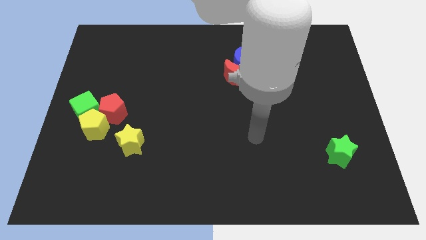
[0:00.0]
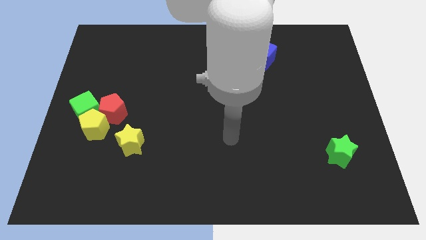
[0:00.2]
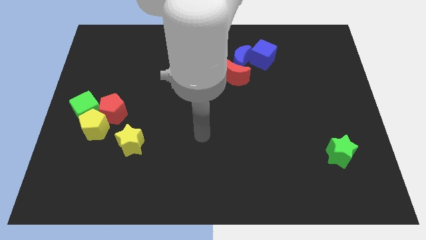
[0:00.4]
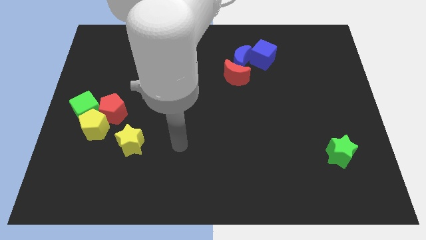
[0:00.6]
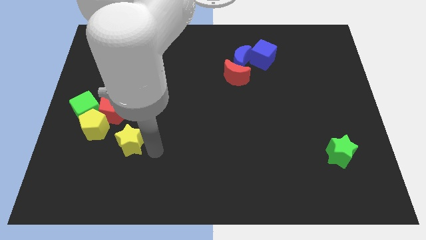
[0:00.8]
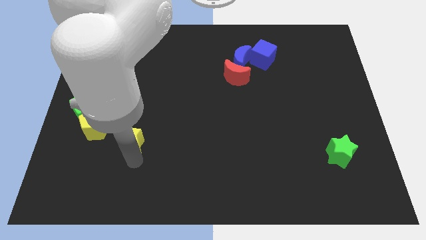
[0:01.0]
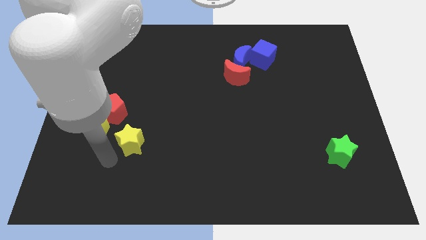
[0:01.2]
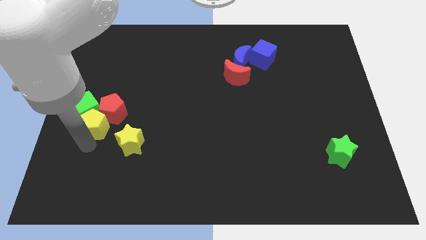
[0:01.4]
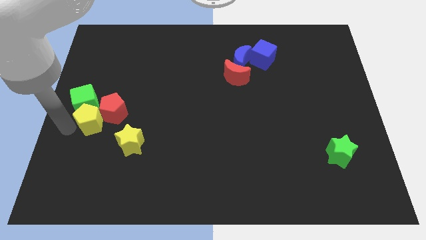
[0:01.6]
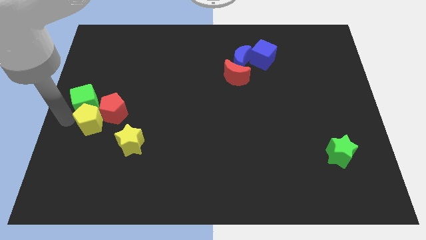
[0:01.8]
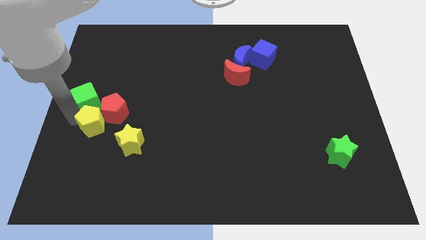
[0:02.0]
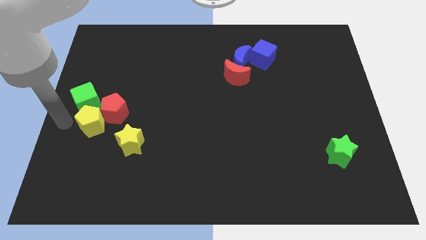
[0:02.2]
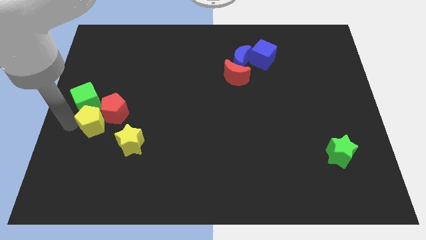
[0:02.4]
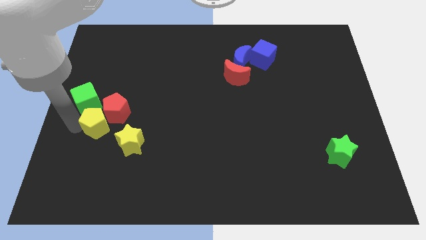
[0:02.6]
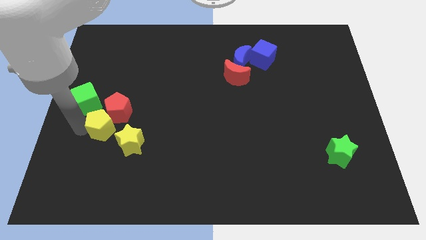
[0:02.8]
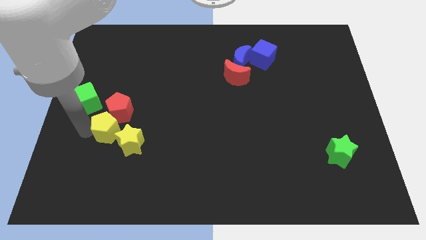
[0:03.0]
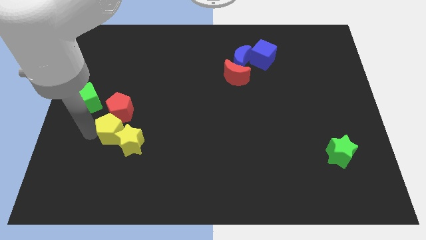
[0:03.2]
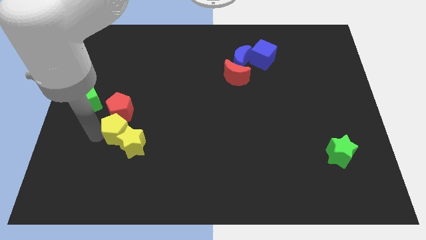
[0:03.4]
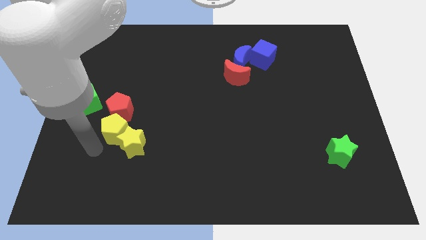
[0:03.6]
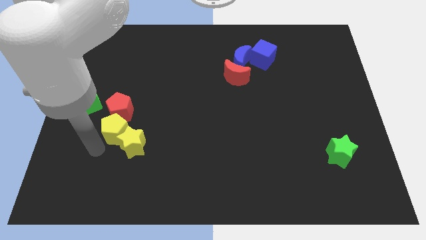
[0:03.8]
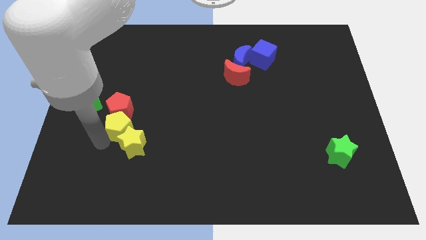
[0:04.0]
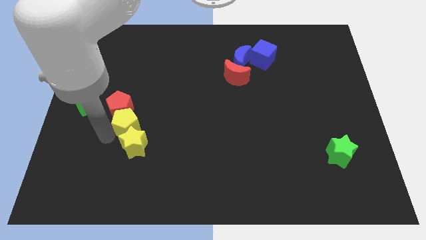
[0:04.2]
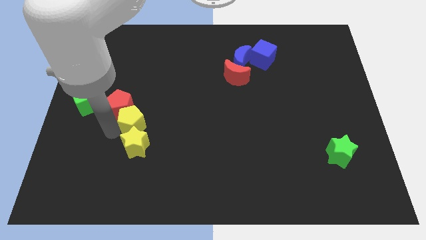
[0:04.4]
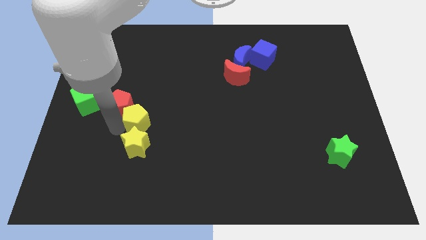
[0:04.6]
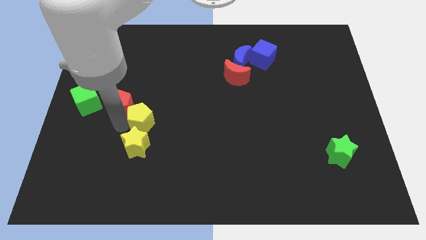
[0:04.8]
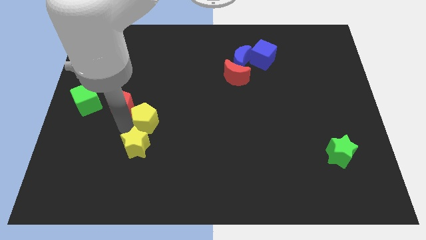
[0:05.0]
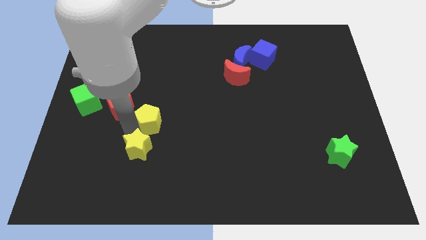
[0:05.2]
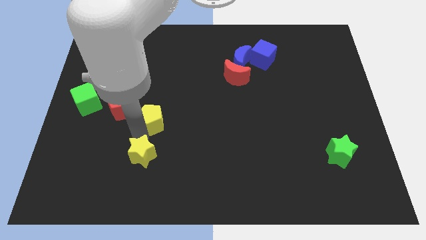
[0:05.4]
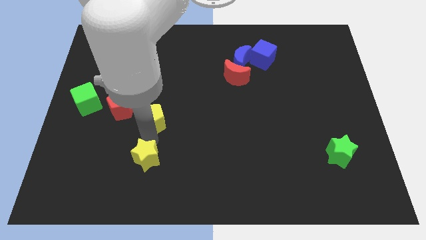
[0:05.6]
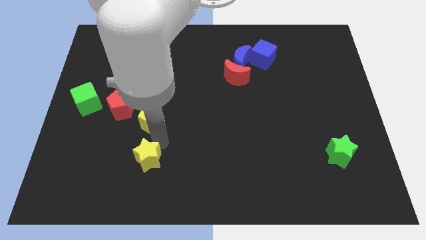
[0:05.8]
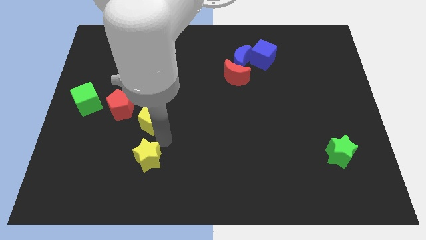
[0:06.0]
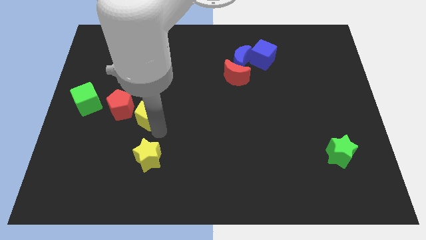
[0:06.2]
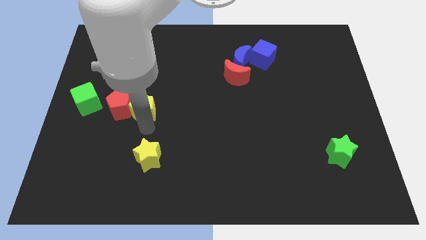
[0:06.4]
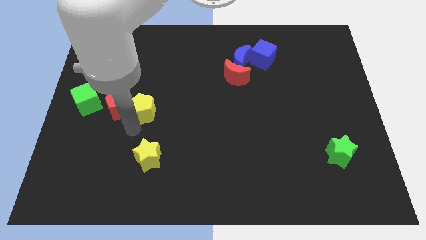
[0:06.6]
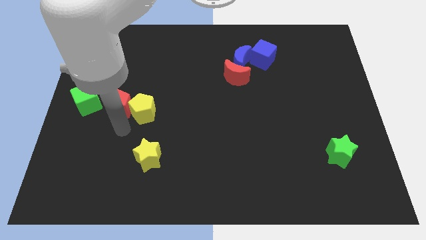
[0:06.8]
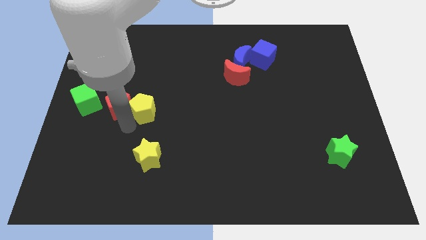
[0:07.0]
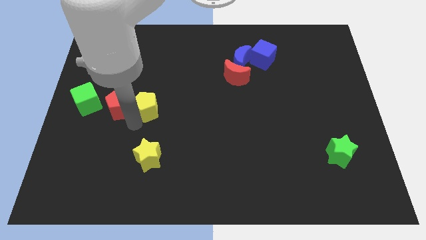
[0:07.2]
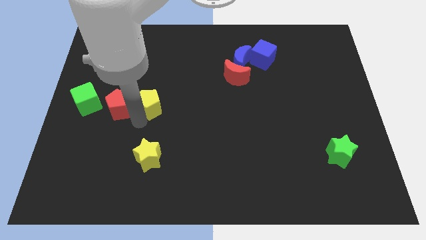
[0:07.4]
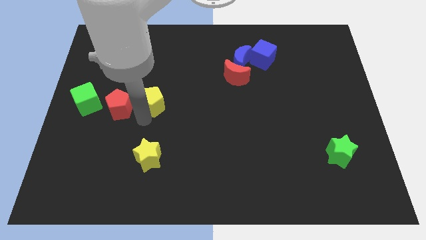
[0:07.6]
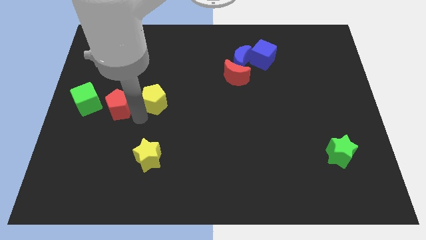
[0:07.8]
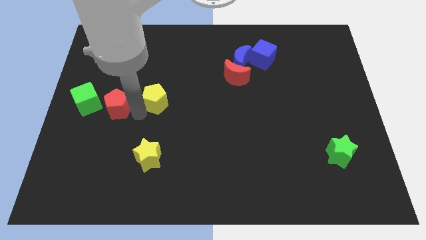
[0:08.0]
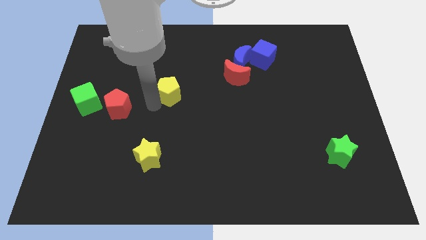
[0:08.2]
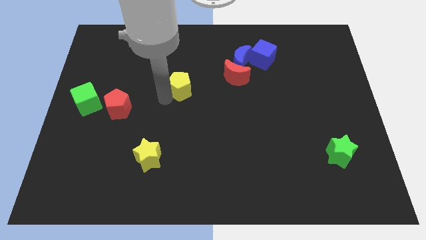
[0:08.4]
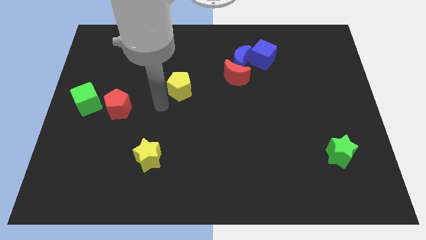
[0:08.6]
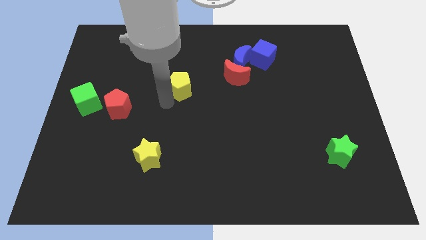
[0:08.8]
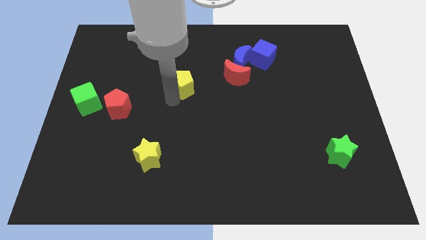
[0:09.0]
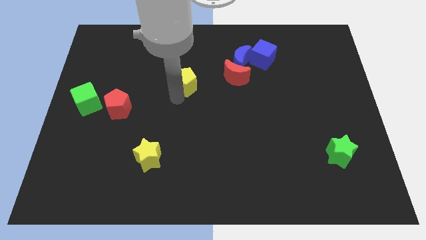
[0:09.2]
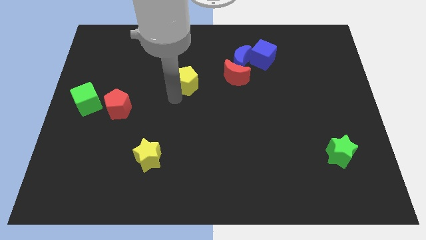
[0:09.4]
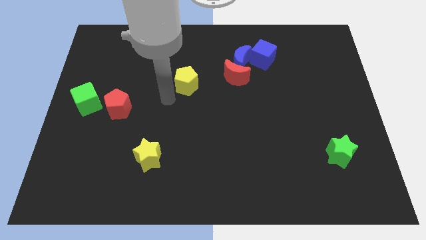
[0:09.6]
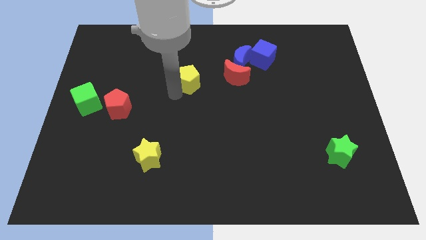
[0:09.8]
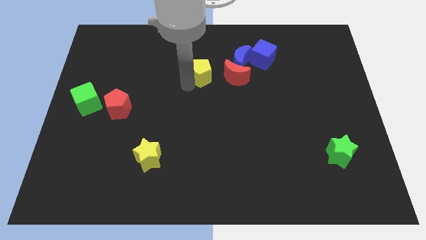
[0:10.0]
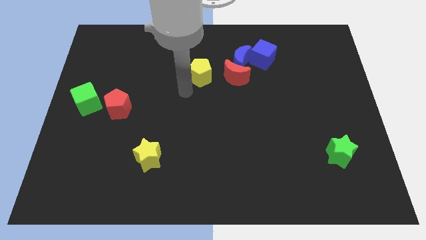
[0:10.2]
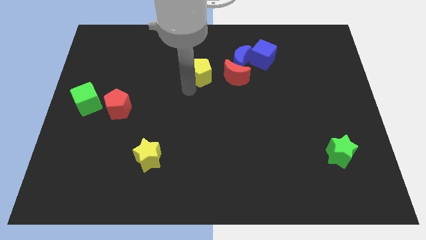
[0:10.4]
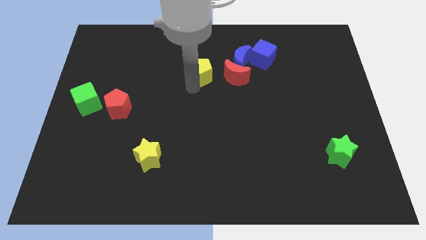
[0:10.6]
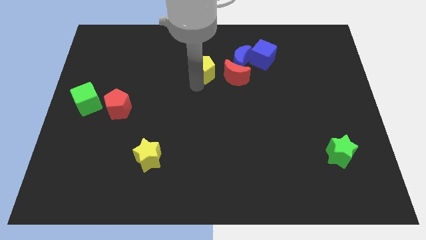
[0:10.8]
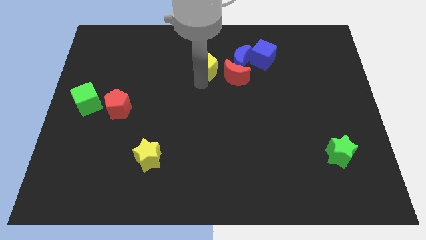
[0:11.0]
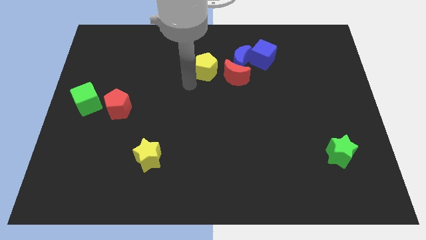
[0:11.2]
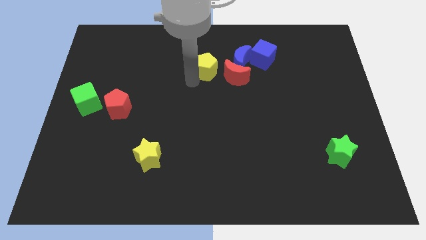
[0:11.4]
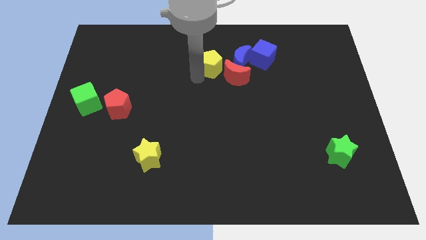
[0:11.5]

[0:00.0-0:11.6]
push the yellow pentagon just left of the blue cube
